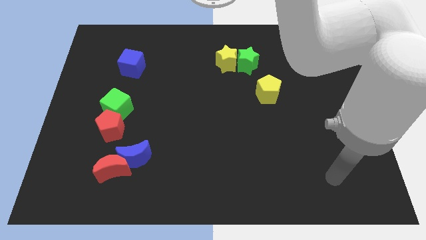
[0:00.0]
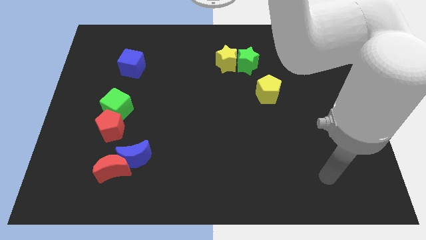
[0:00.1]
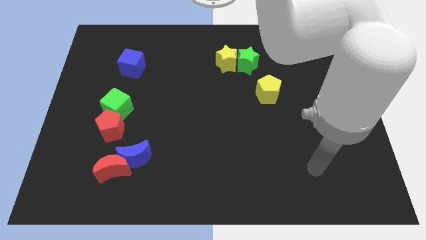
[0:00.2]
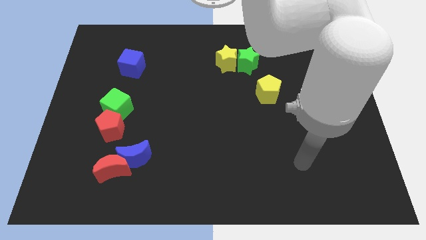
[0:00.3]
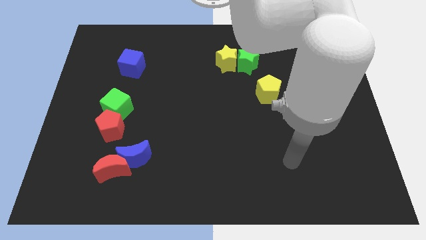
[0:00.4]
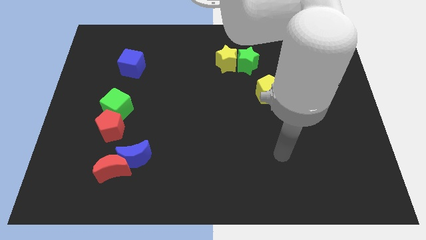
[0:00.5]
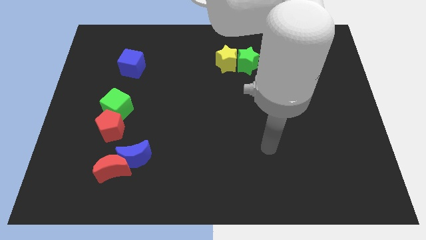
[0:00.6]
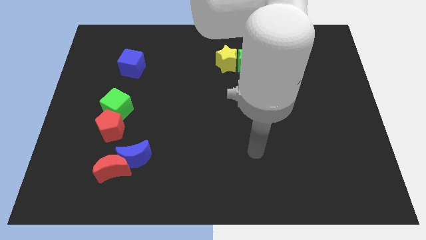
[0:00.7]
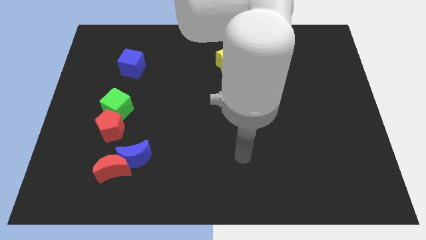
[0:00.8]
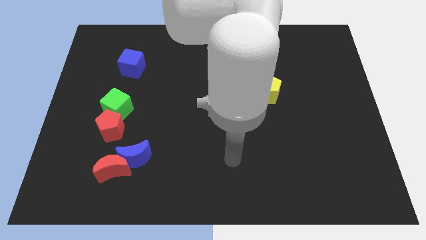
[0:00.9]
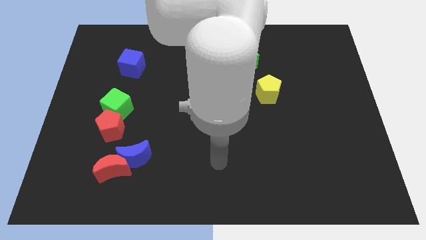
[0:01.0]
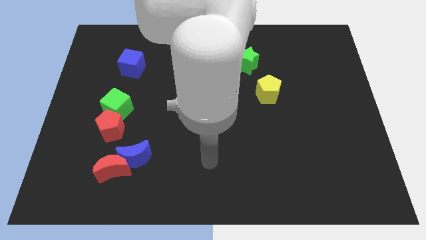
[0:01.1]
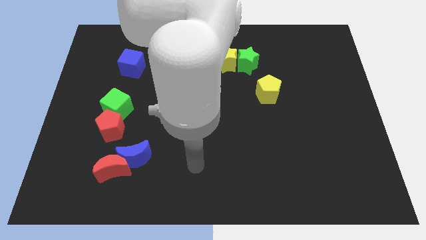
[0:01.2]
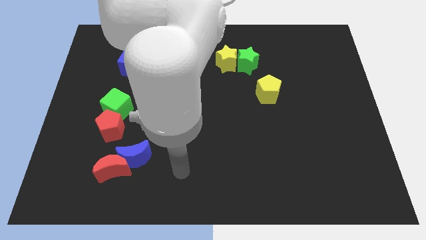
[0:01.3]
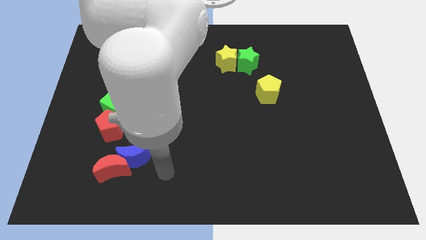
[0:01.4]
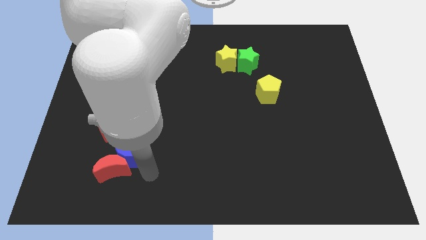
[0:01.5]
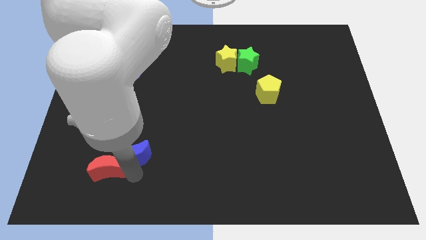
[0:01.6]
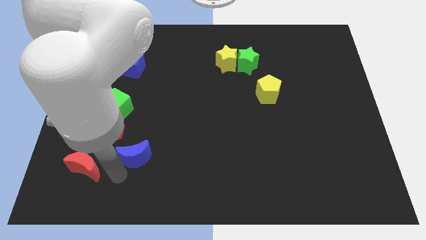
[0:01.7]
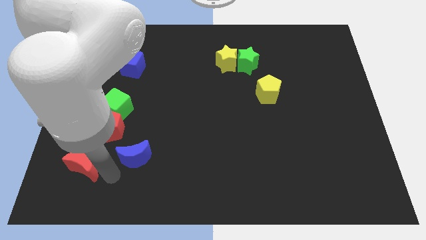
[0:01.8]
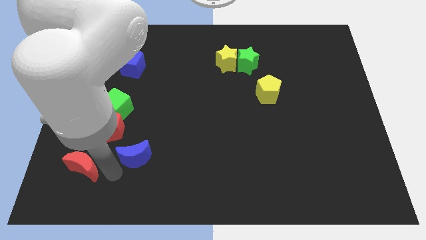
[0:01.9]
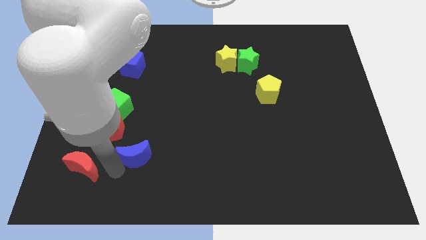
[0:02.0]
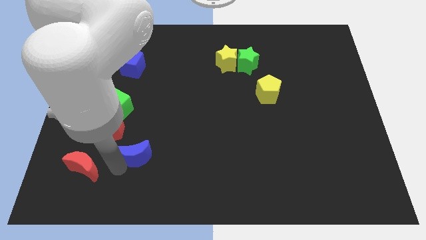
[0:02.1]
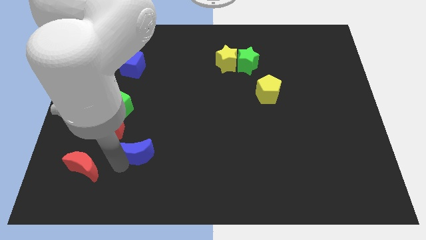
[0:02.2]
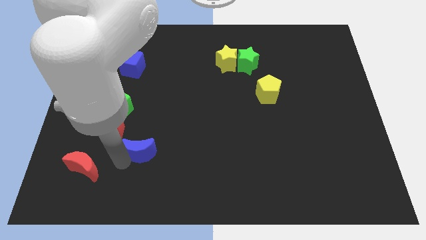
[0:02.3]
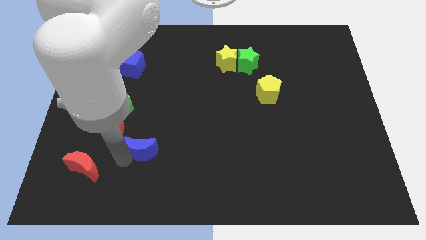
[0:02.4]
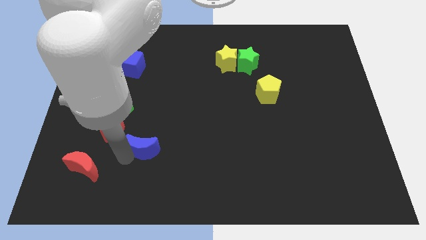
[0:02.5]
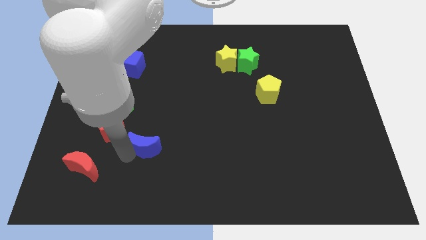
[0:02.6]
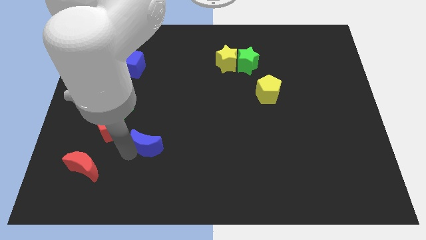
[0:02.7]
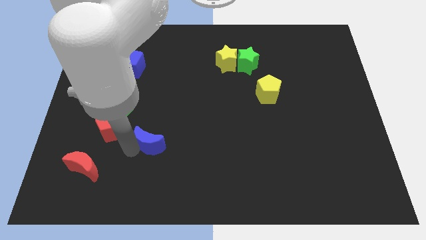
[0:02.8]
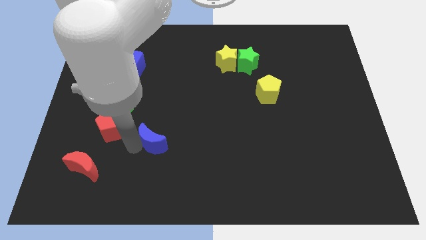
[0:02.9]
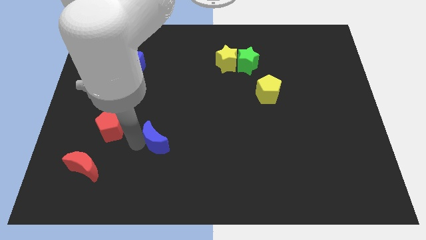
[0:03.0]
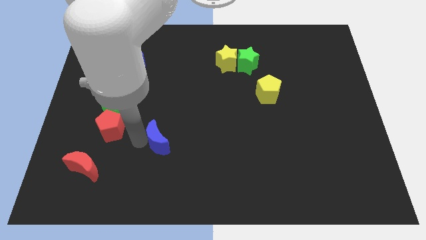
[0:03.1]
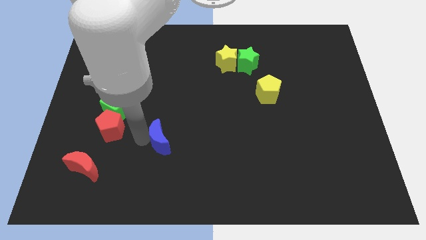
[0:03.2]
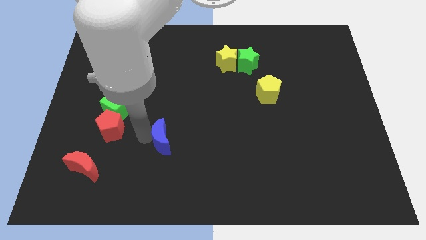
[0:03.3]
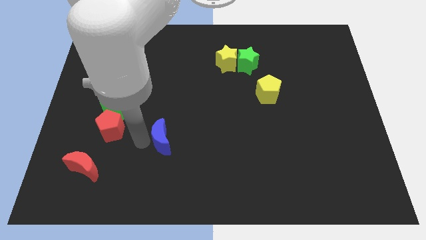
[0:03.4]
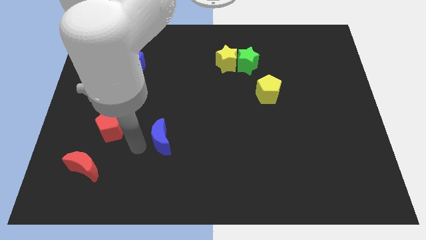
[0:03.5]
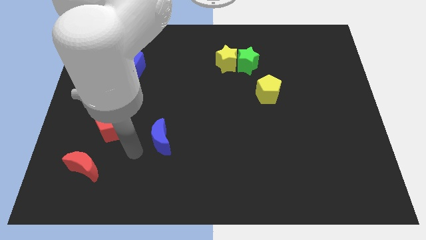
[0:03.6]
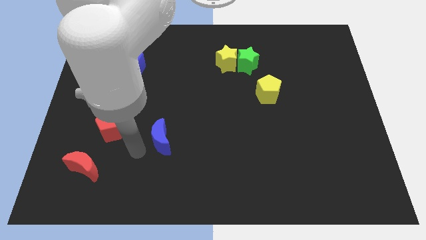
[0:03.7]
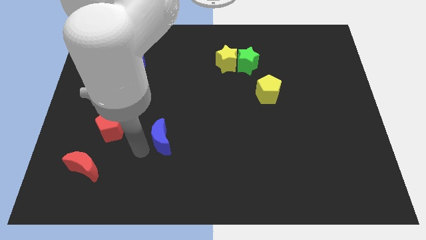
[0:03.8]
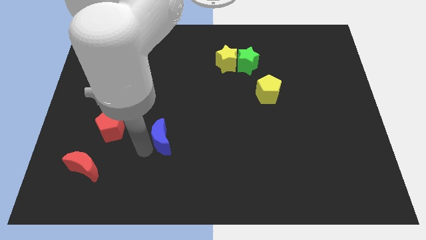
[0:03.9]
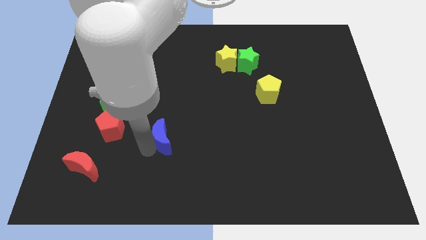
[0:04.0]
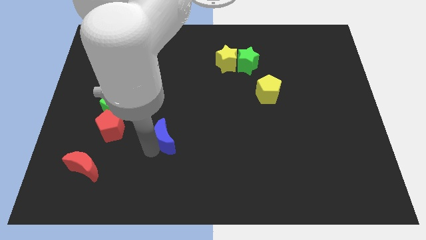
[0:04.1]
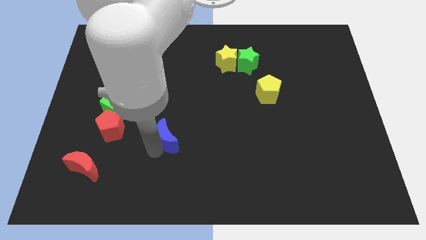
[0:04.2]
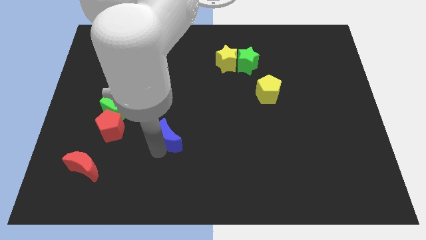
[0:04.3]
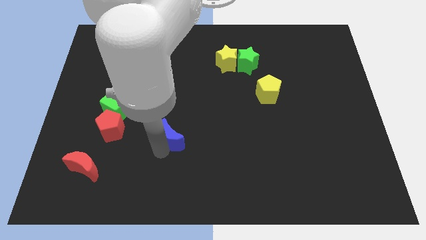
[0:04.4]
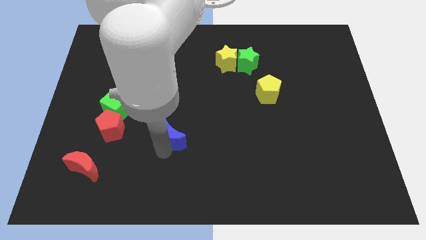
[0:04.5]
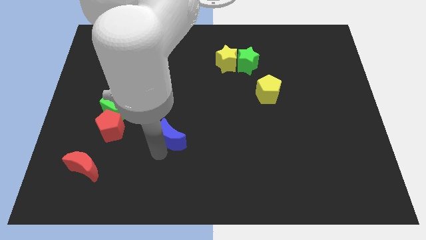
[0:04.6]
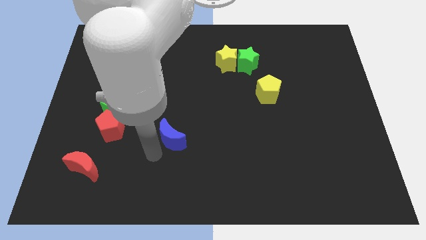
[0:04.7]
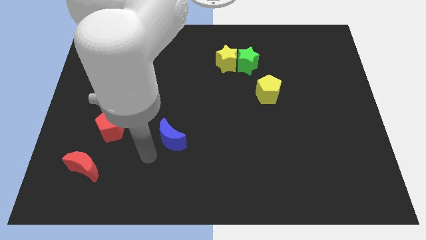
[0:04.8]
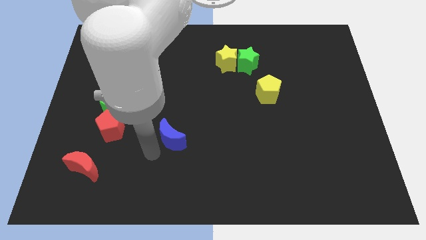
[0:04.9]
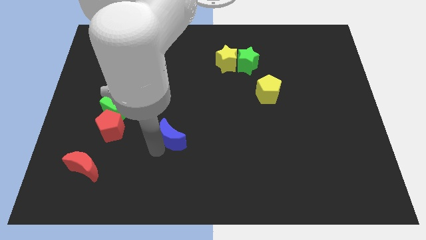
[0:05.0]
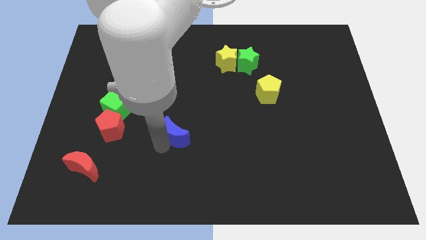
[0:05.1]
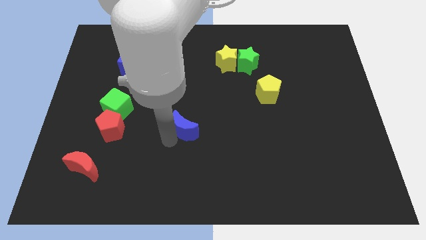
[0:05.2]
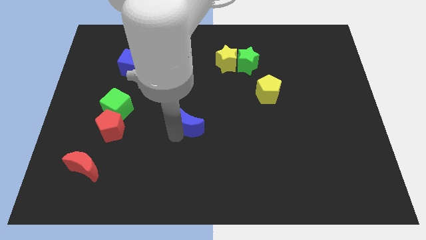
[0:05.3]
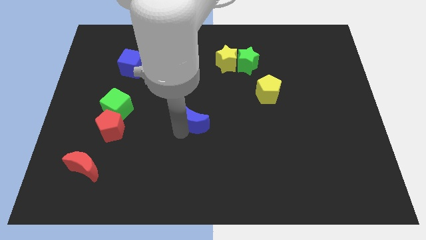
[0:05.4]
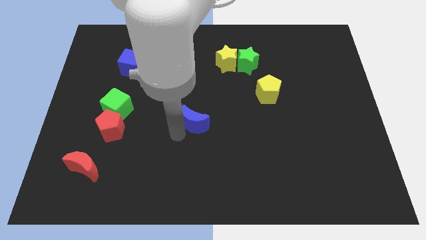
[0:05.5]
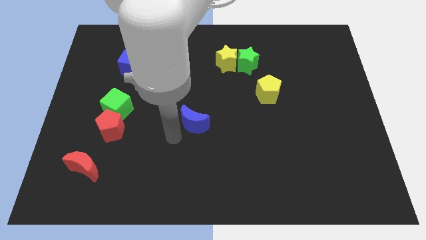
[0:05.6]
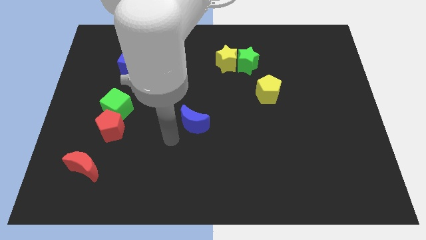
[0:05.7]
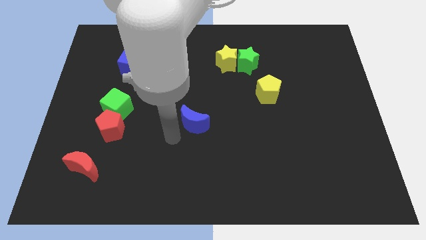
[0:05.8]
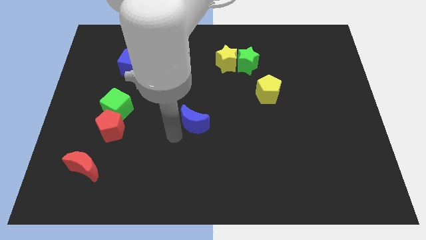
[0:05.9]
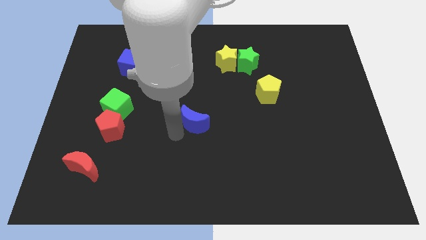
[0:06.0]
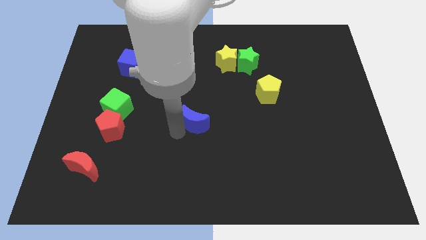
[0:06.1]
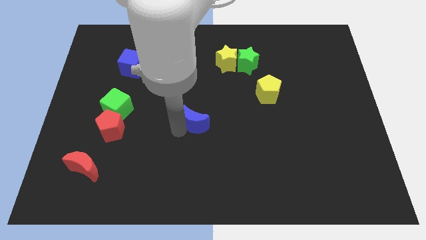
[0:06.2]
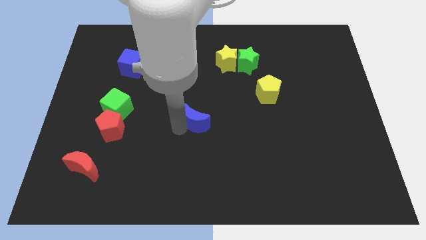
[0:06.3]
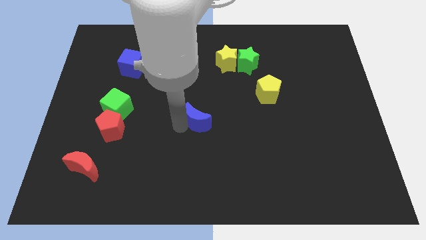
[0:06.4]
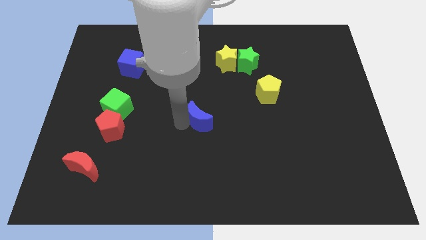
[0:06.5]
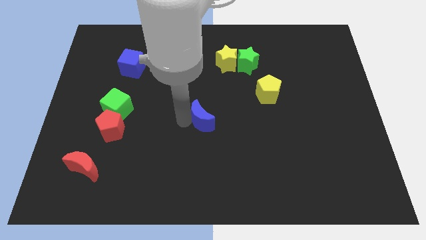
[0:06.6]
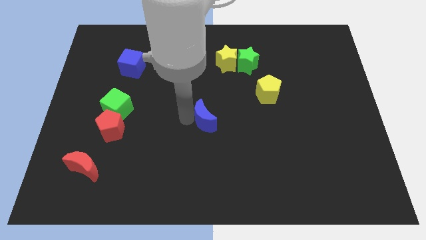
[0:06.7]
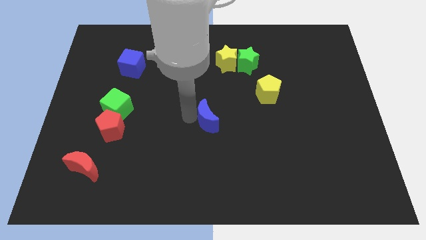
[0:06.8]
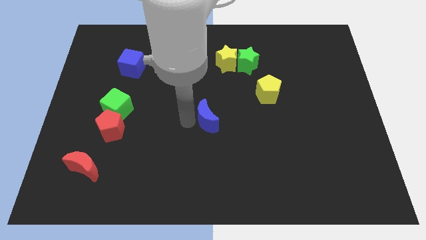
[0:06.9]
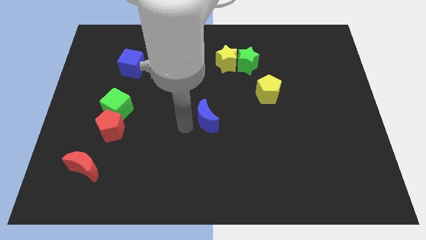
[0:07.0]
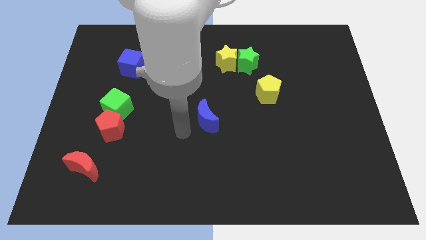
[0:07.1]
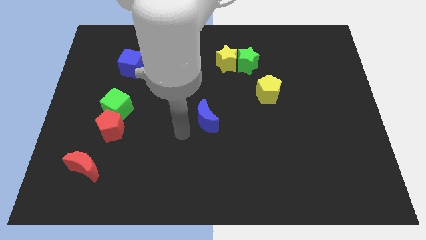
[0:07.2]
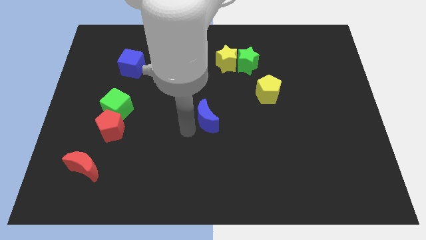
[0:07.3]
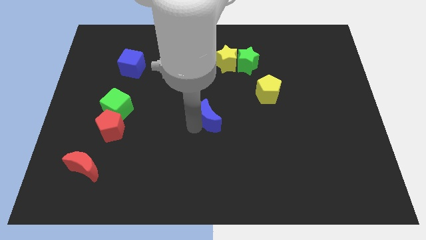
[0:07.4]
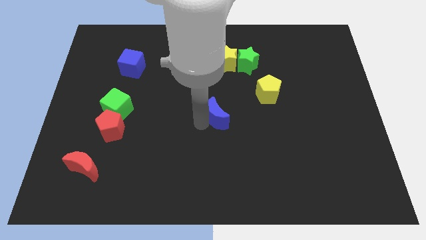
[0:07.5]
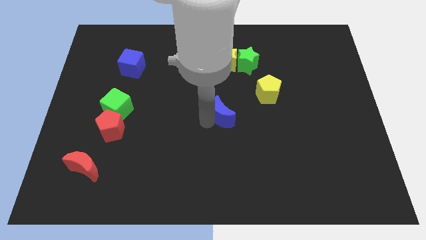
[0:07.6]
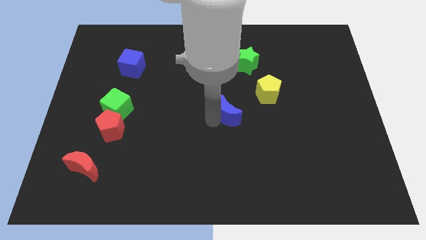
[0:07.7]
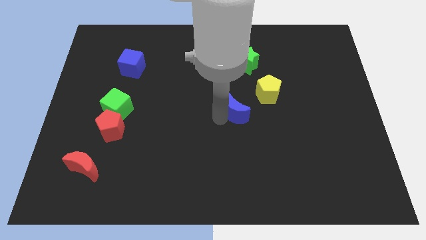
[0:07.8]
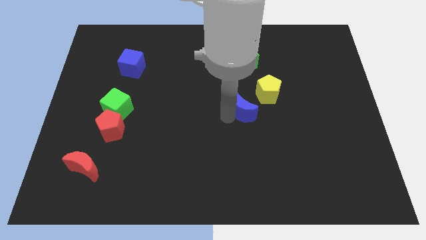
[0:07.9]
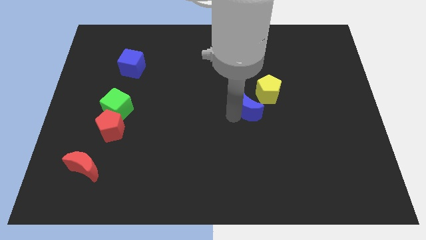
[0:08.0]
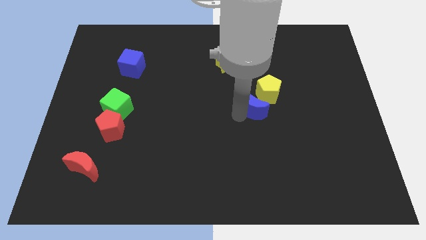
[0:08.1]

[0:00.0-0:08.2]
slide the blue moon next to the yellow pentagon
